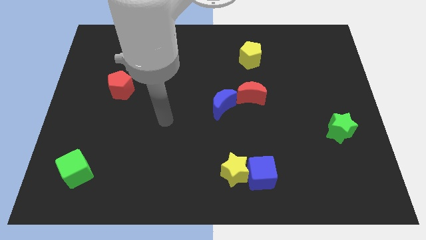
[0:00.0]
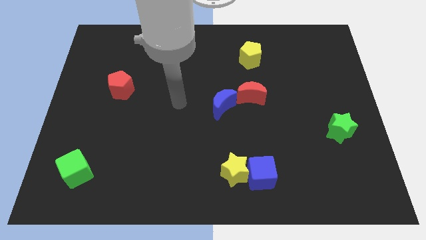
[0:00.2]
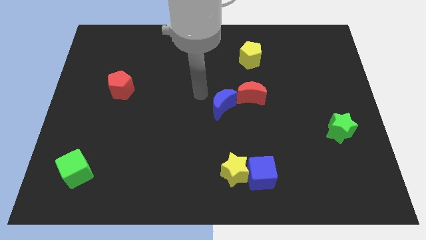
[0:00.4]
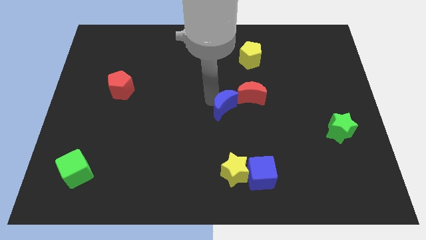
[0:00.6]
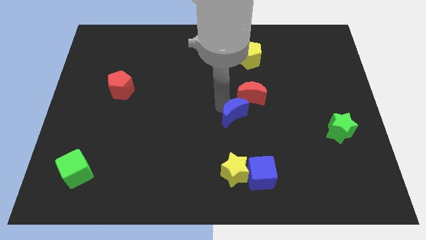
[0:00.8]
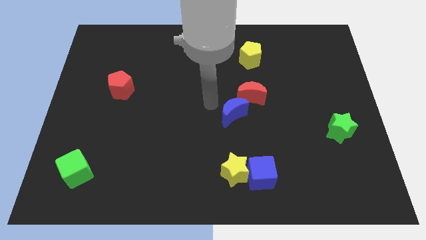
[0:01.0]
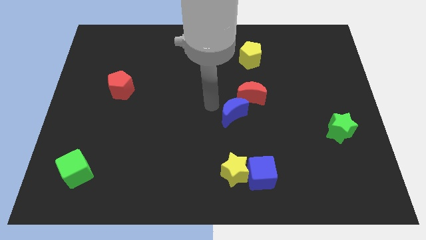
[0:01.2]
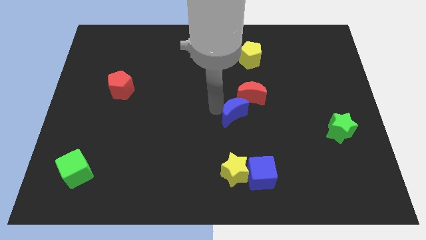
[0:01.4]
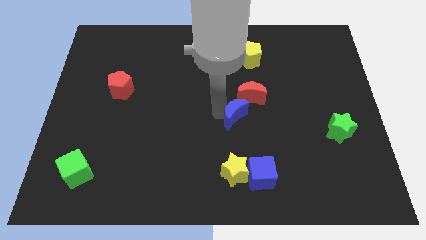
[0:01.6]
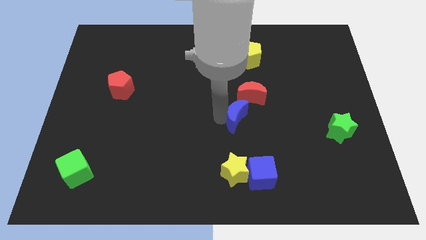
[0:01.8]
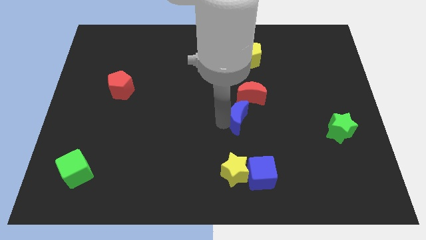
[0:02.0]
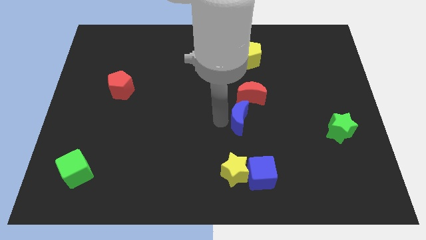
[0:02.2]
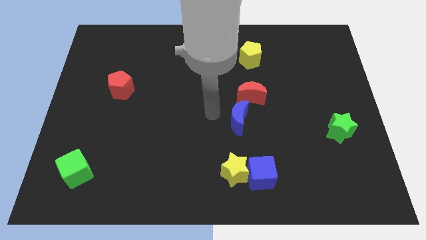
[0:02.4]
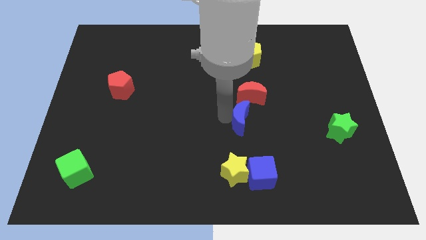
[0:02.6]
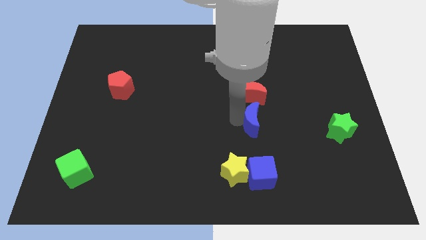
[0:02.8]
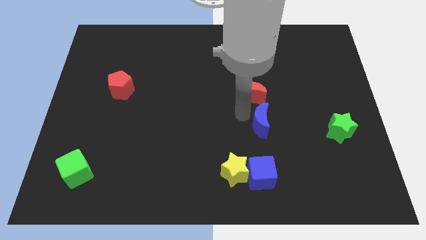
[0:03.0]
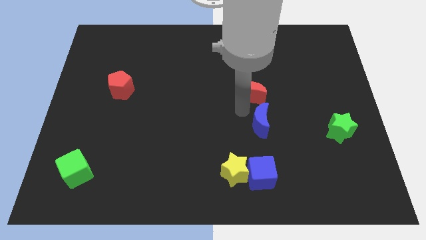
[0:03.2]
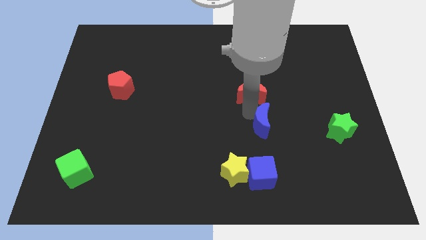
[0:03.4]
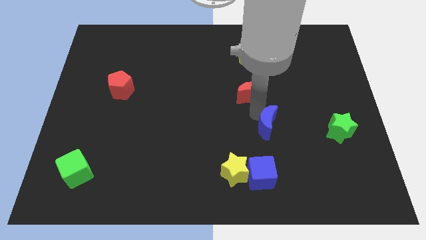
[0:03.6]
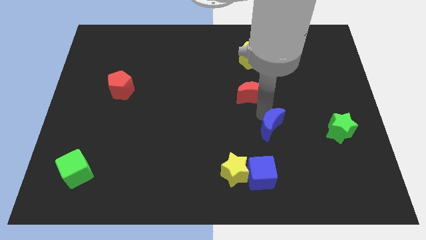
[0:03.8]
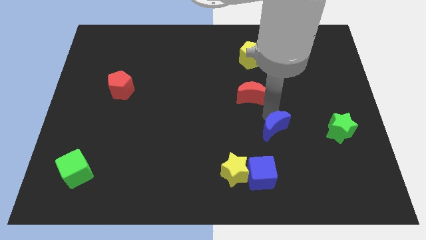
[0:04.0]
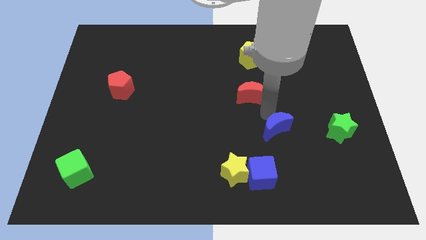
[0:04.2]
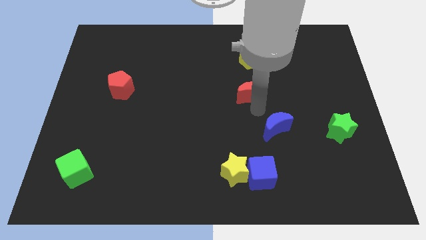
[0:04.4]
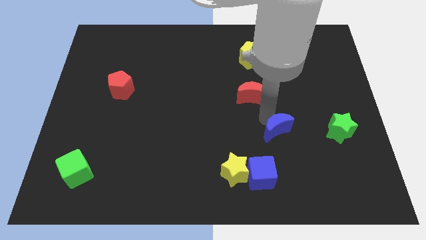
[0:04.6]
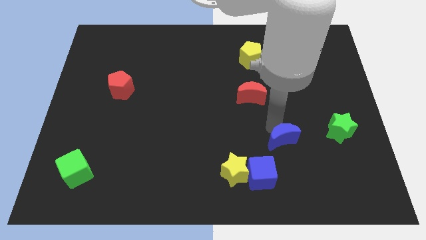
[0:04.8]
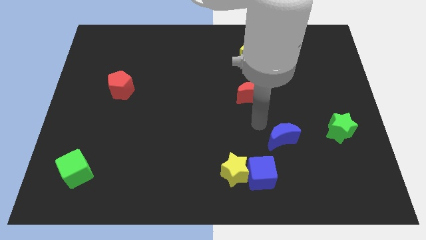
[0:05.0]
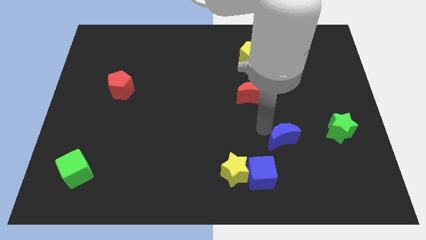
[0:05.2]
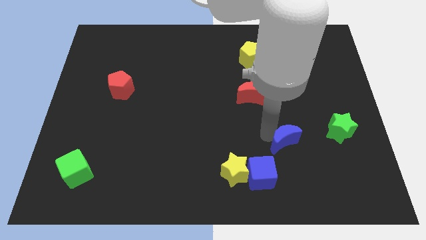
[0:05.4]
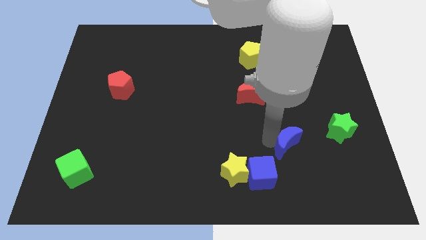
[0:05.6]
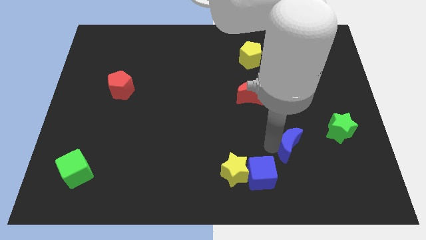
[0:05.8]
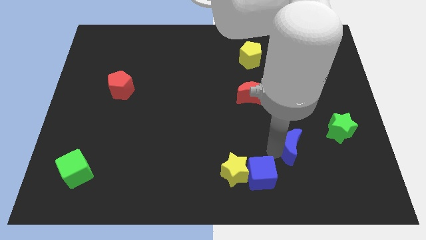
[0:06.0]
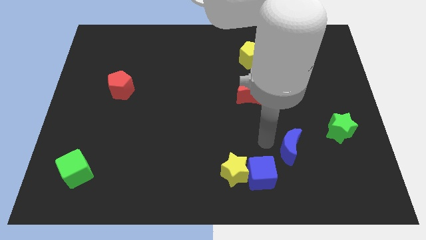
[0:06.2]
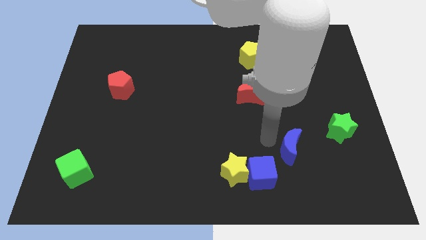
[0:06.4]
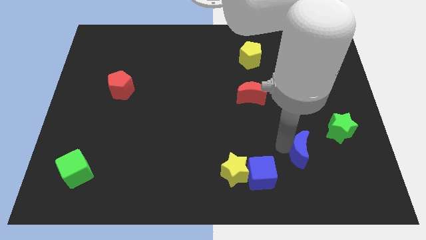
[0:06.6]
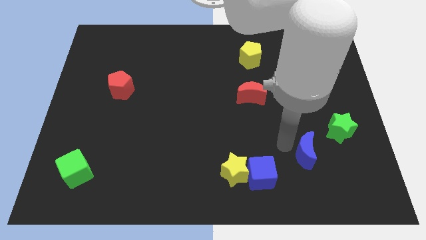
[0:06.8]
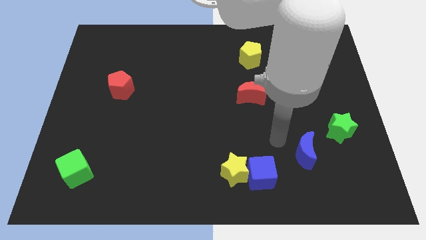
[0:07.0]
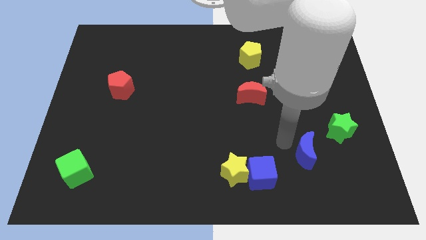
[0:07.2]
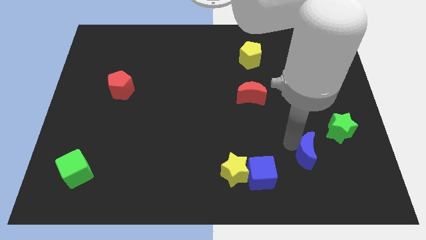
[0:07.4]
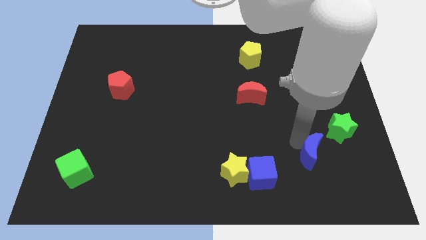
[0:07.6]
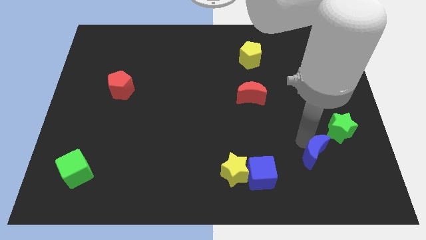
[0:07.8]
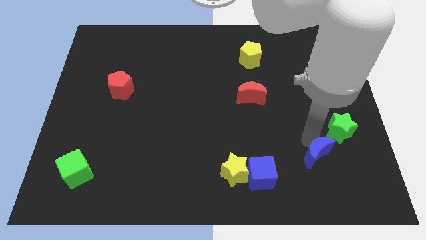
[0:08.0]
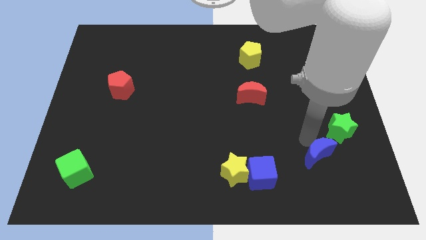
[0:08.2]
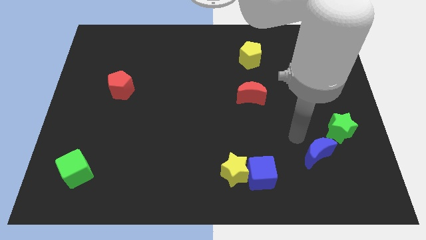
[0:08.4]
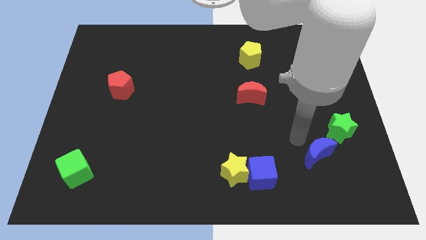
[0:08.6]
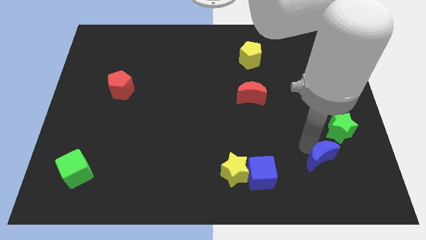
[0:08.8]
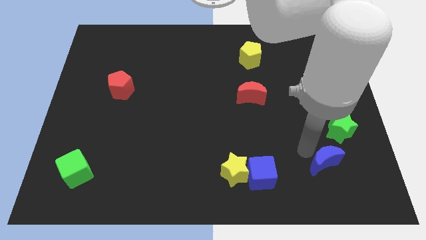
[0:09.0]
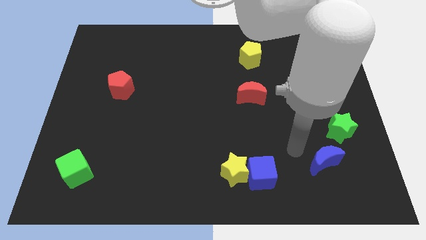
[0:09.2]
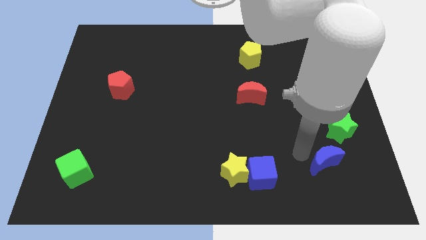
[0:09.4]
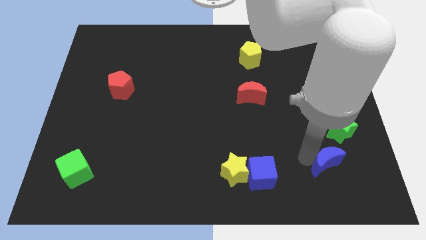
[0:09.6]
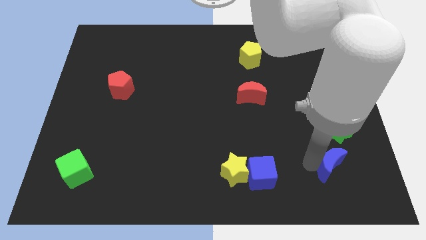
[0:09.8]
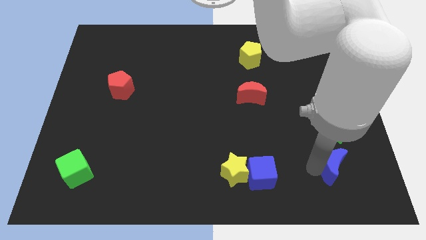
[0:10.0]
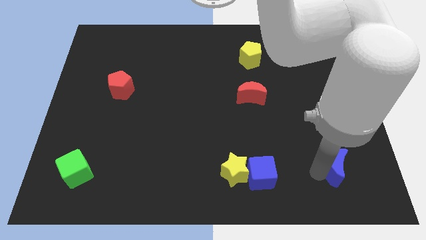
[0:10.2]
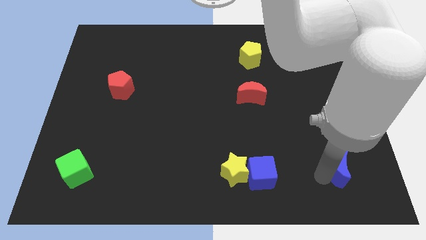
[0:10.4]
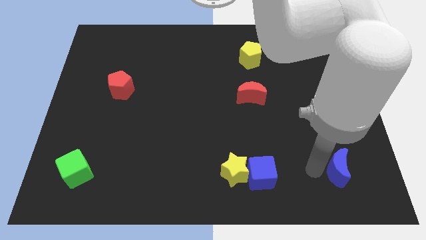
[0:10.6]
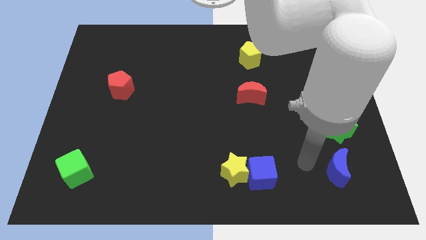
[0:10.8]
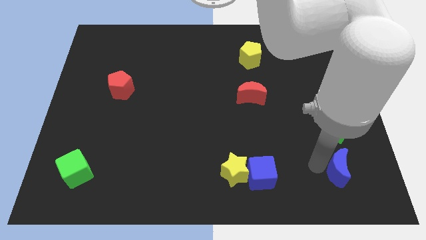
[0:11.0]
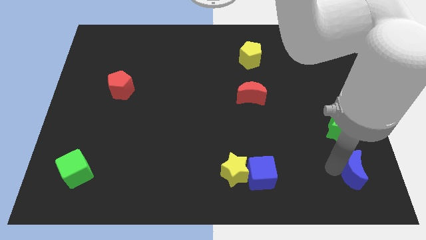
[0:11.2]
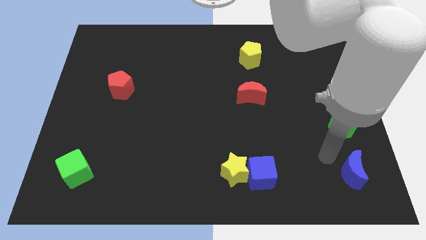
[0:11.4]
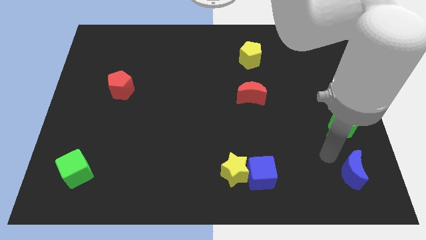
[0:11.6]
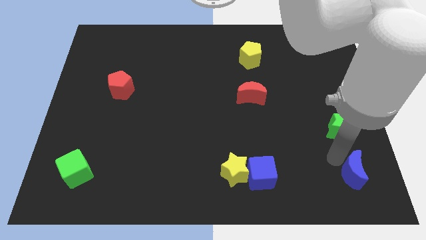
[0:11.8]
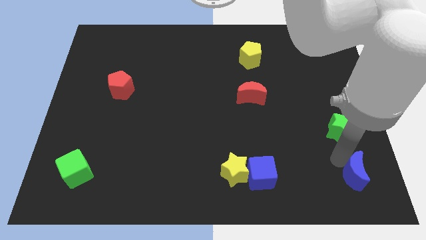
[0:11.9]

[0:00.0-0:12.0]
move the blue moon to the bottom right of the board
